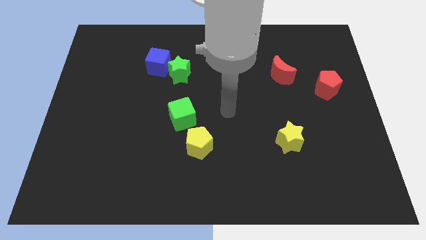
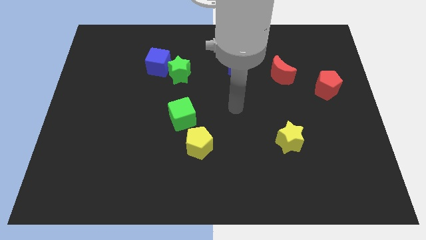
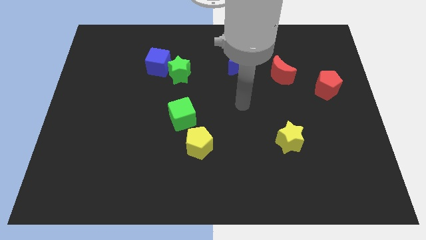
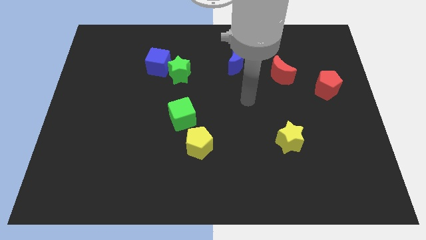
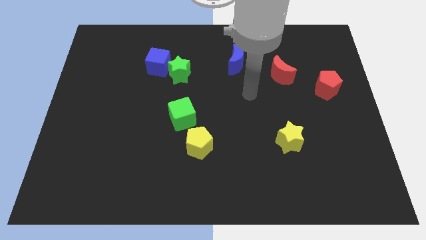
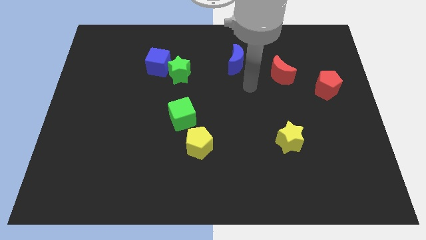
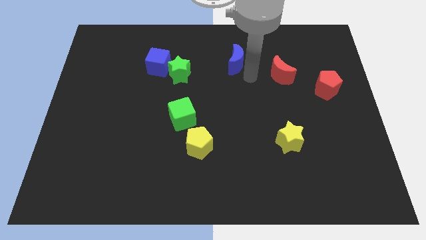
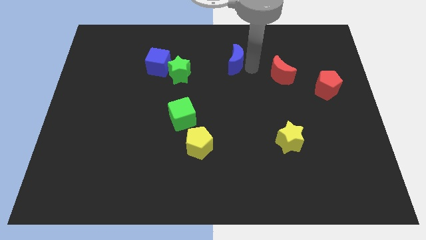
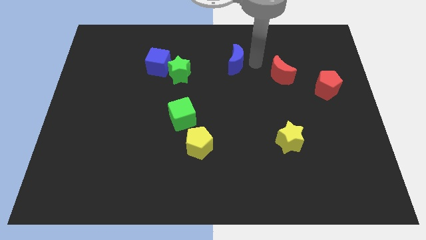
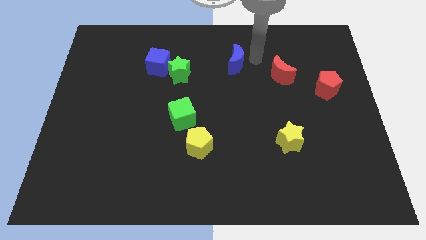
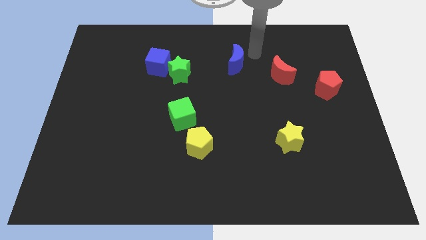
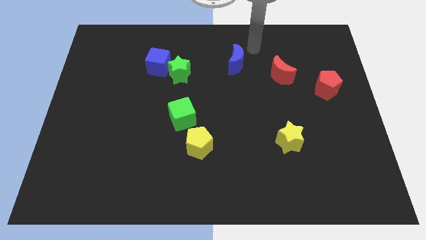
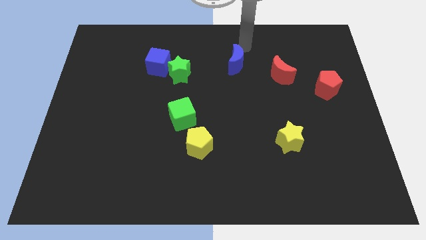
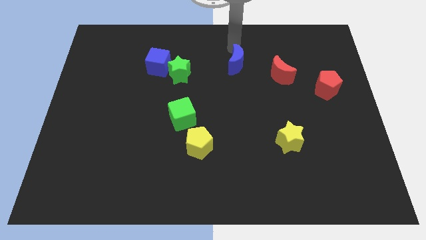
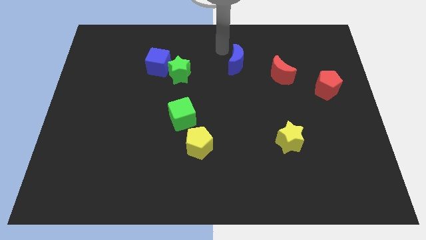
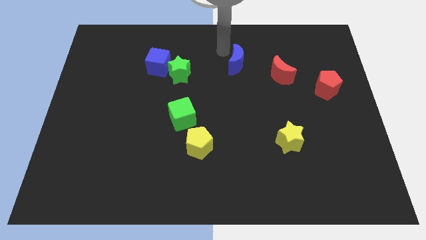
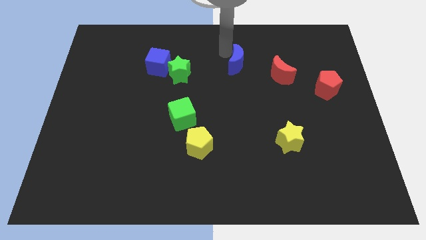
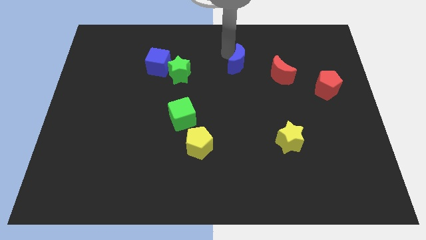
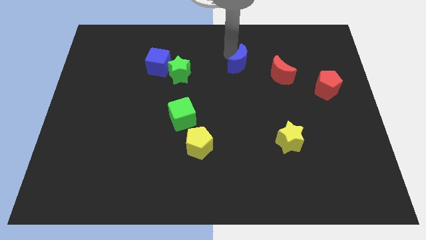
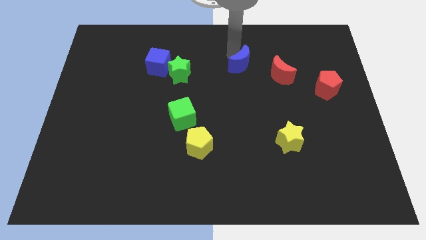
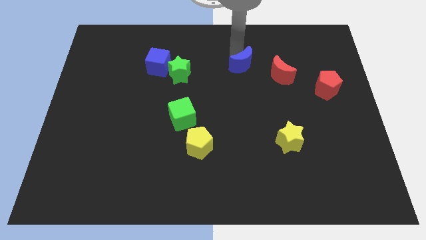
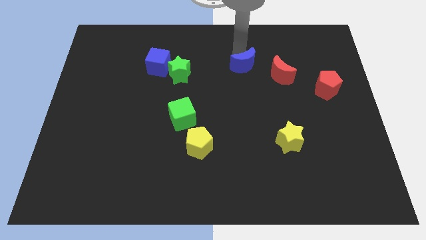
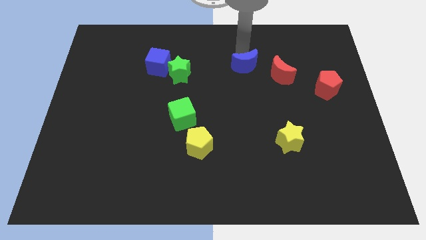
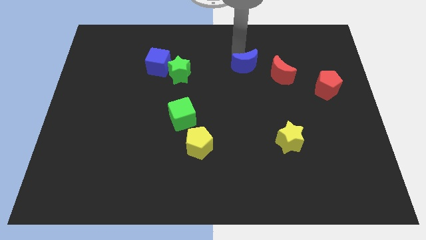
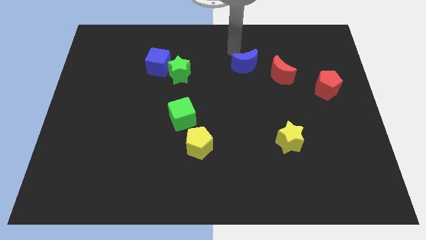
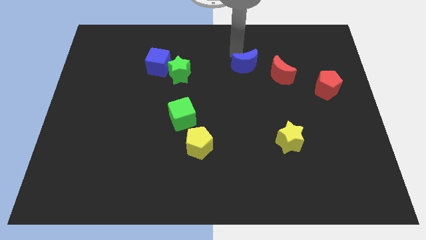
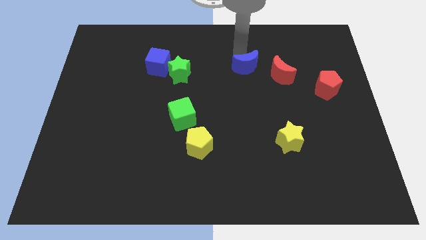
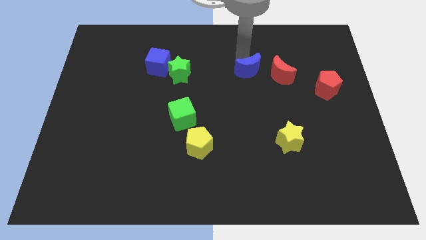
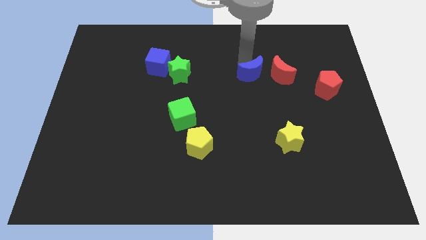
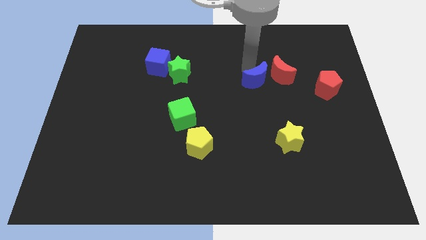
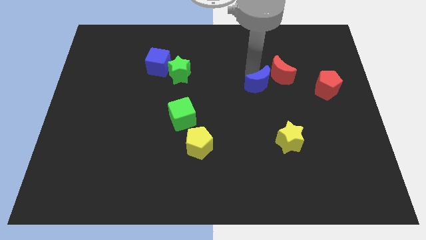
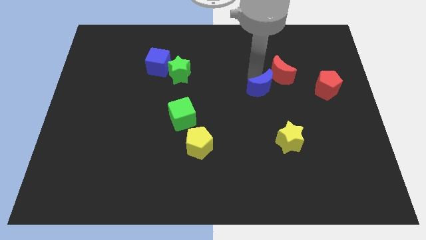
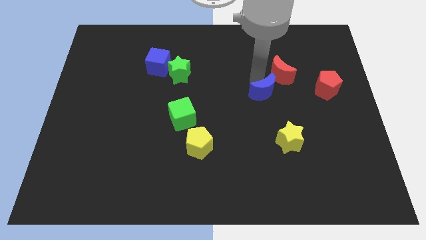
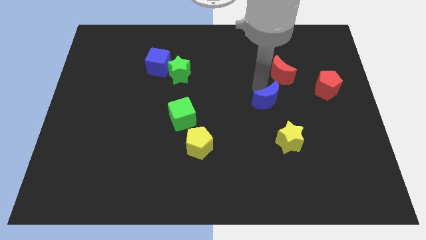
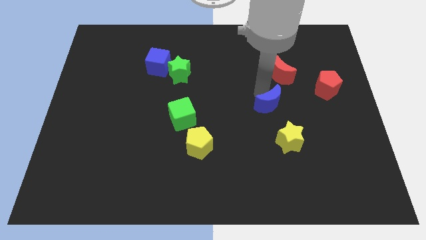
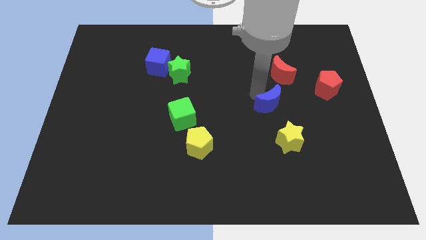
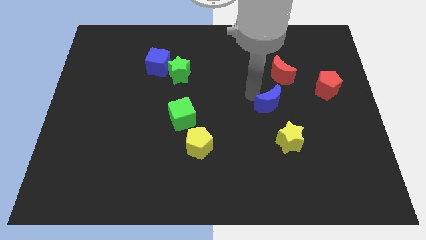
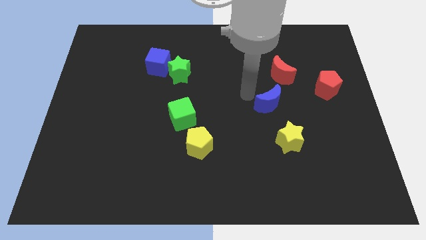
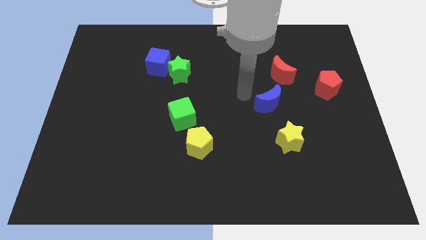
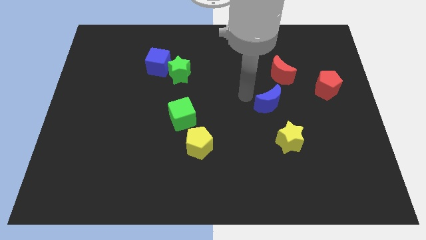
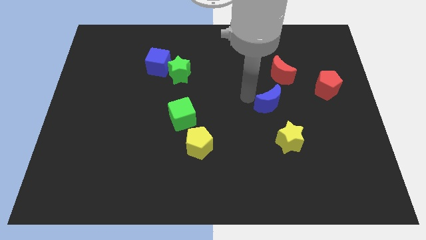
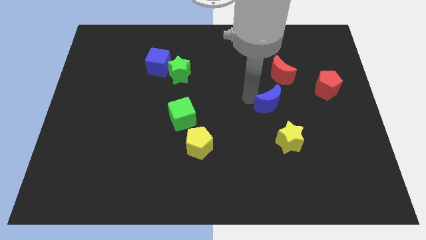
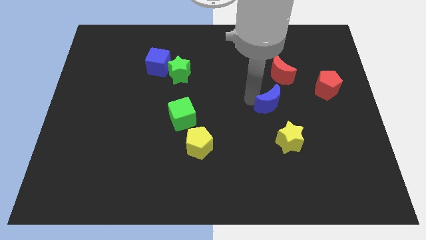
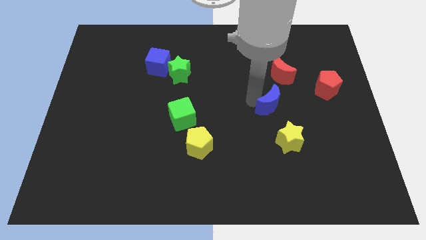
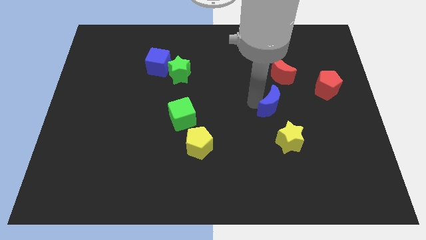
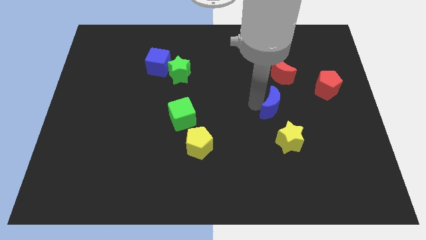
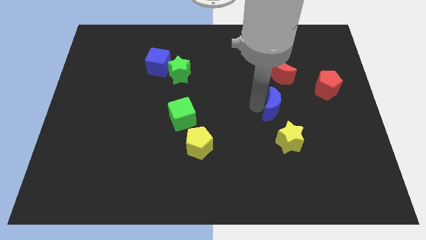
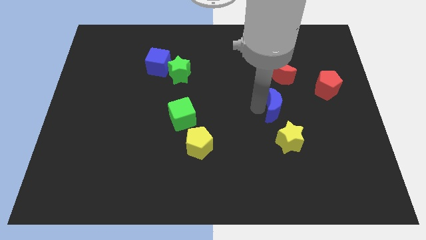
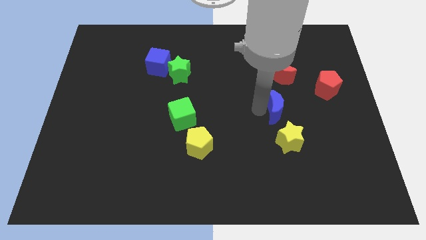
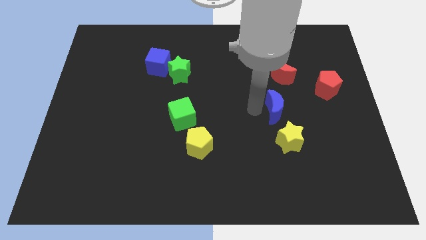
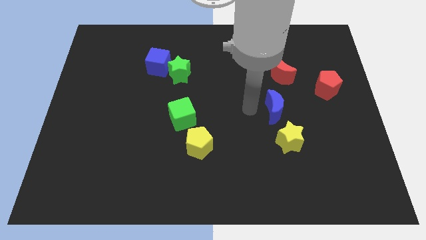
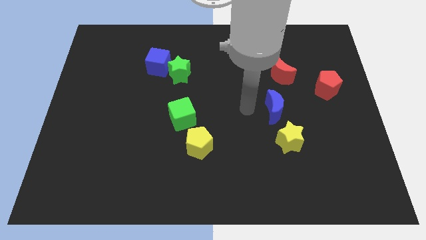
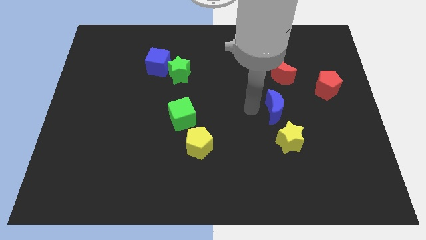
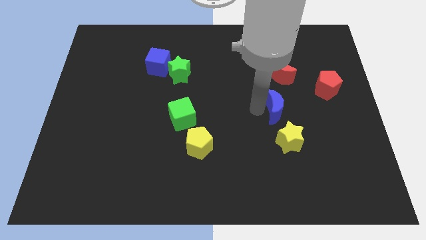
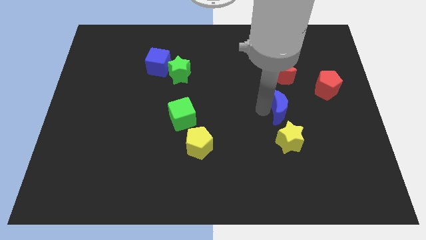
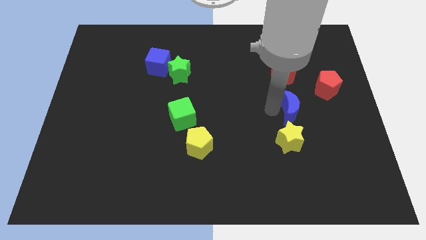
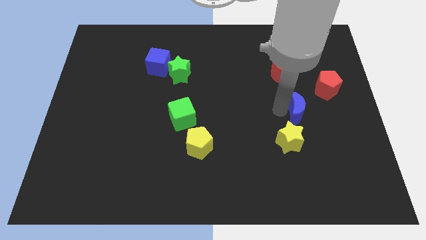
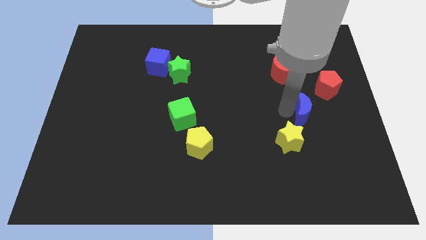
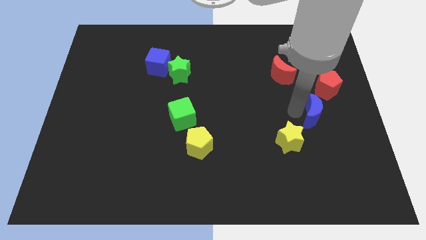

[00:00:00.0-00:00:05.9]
push the blue moon to the bottom of the red pentagon

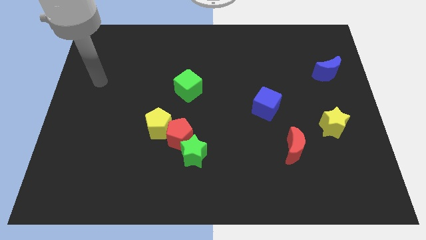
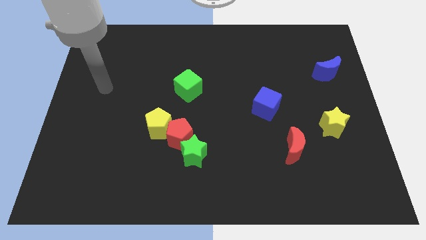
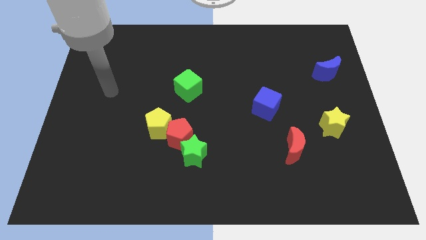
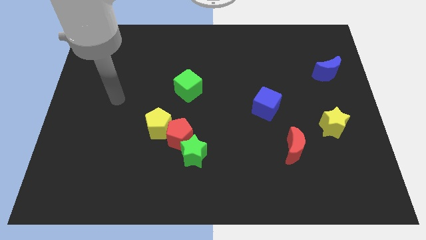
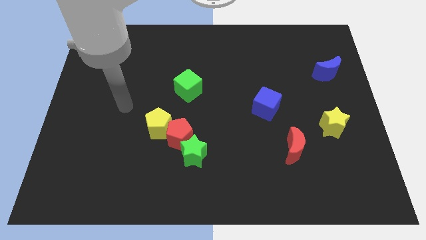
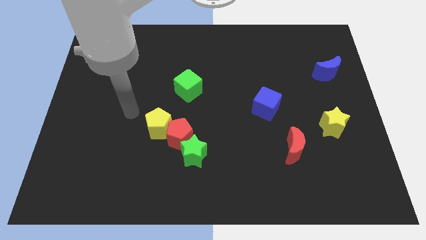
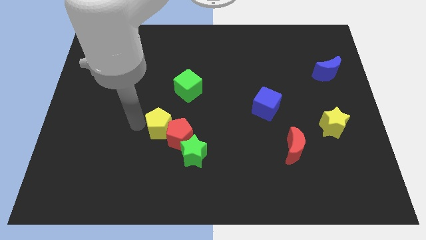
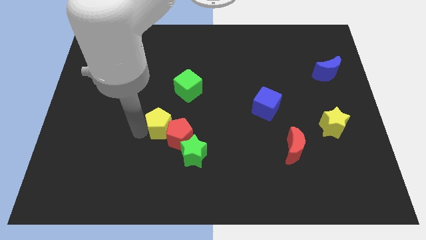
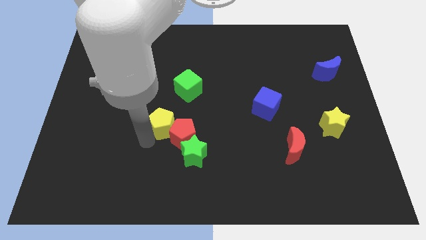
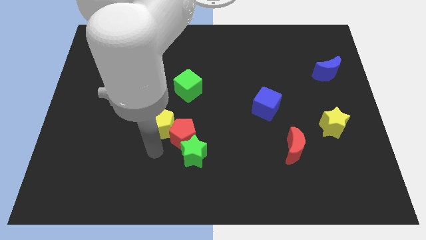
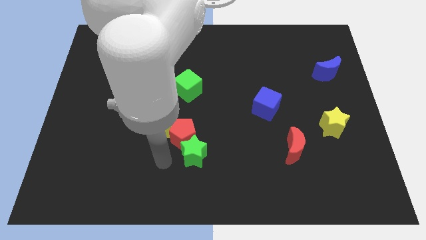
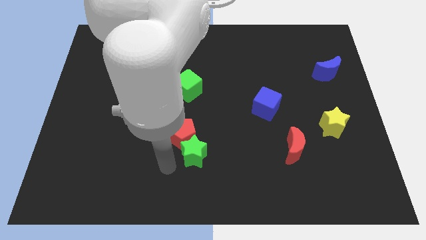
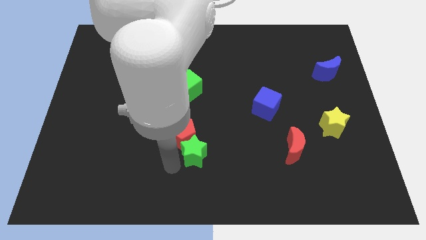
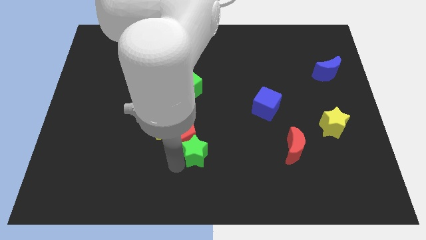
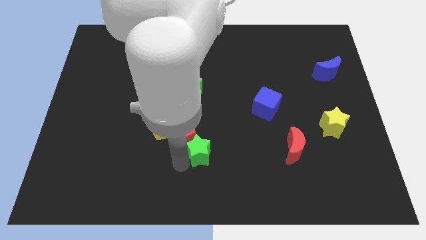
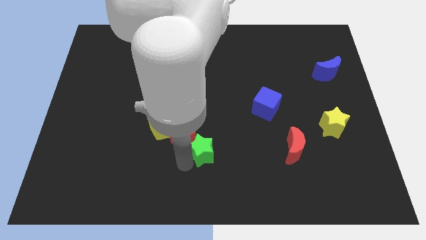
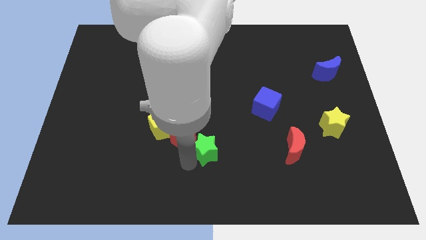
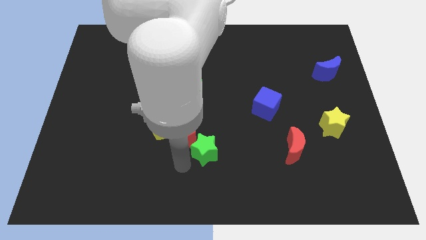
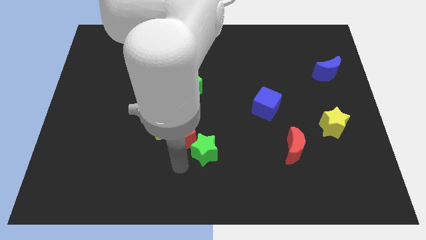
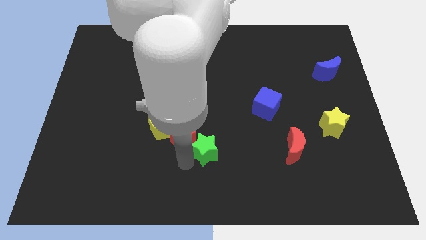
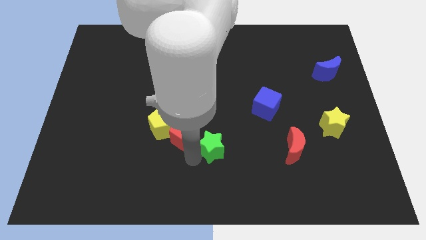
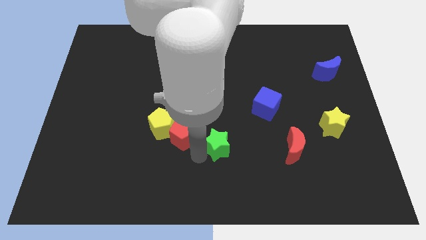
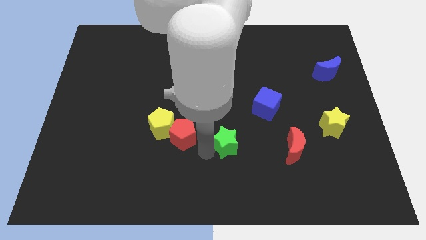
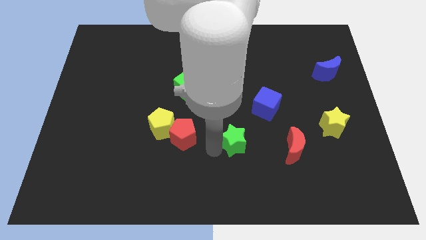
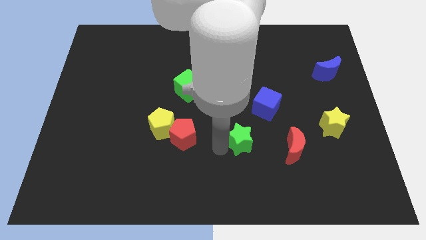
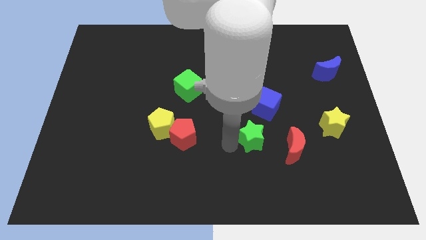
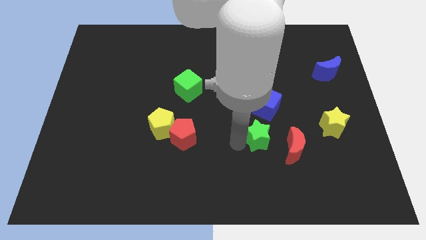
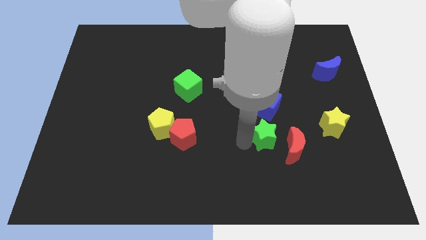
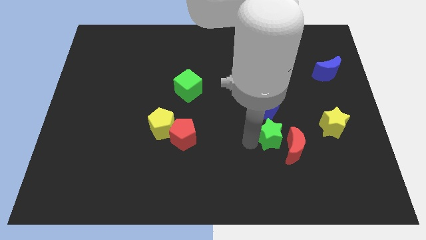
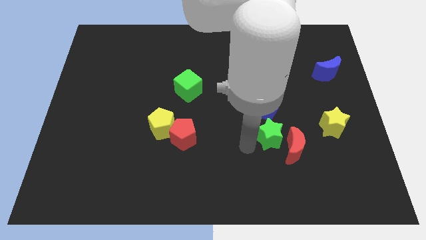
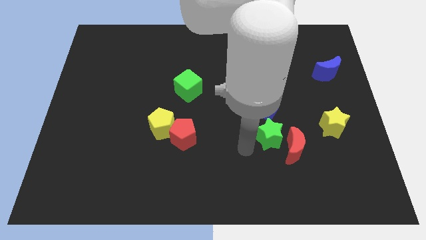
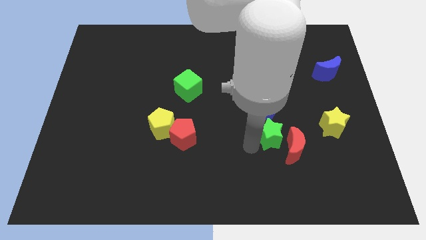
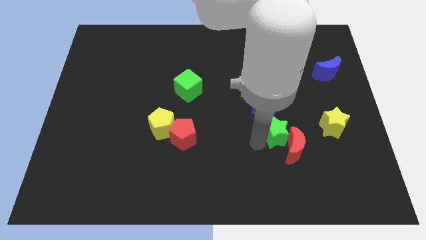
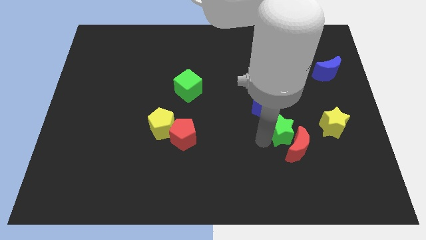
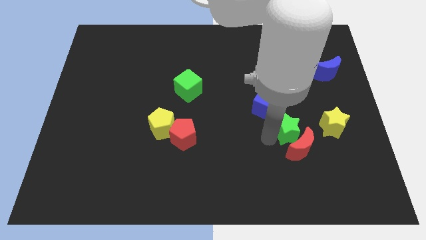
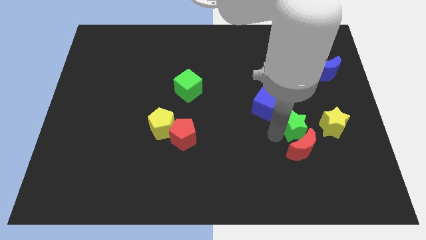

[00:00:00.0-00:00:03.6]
slide the green star diagonally up and to the right of the red moon
